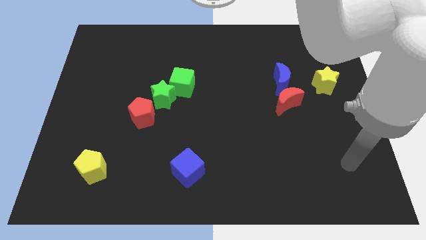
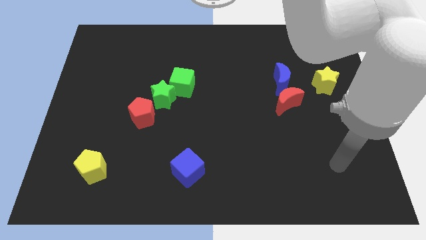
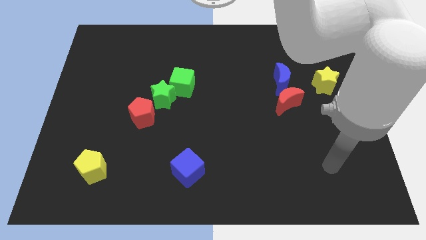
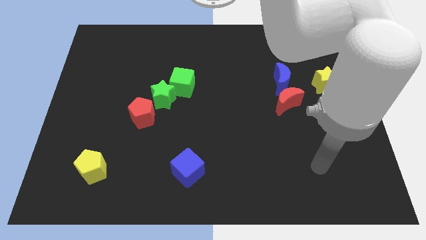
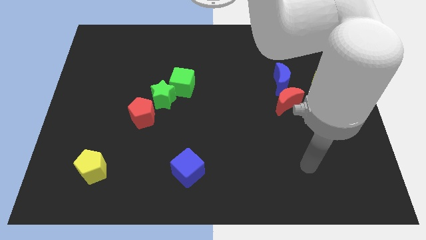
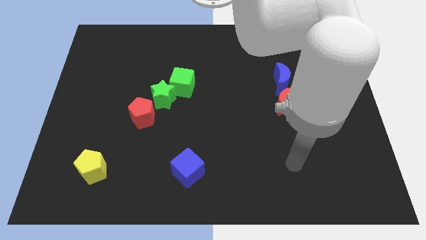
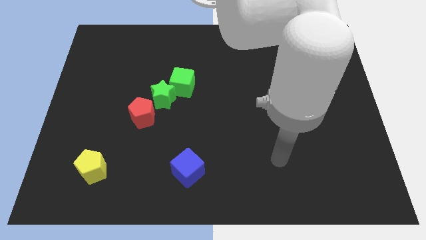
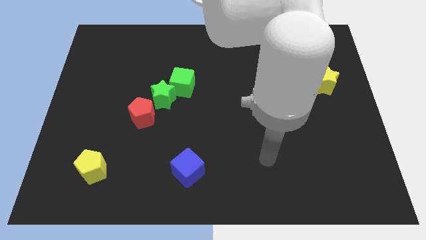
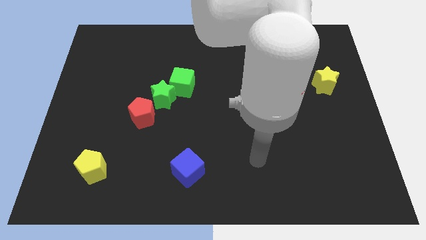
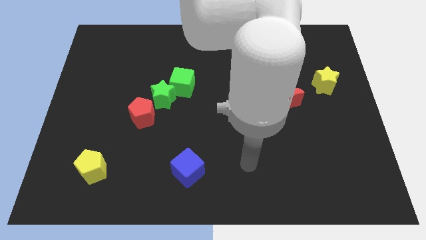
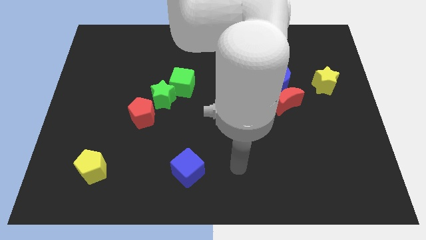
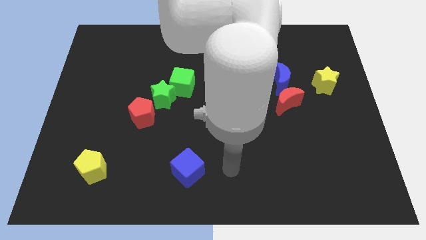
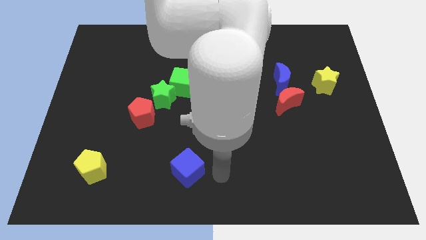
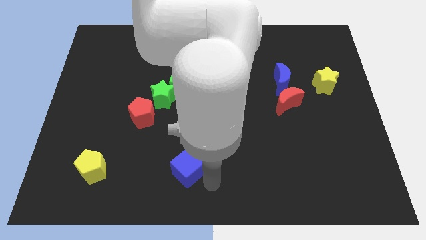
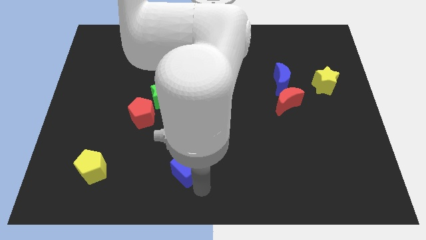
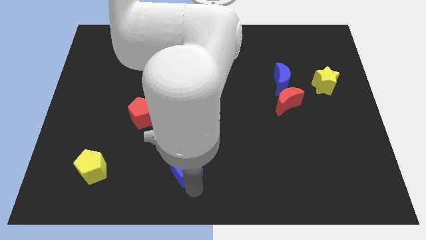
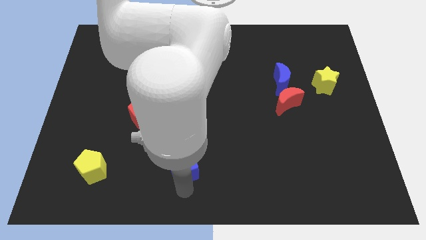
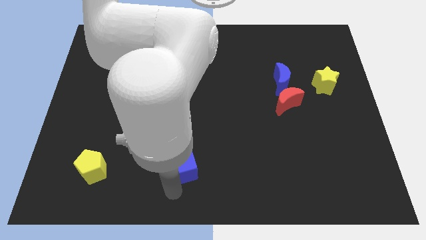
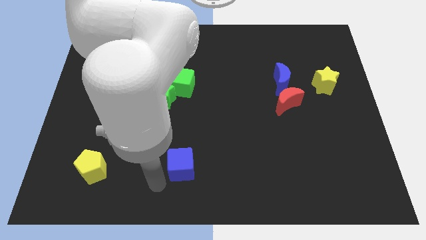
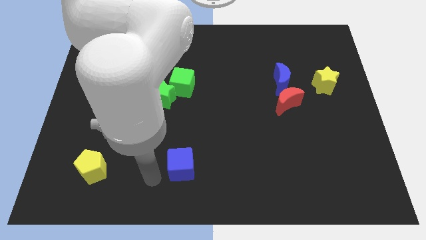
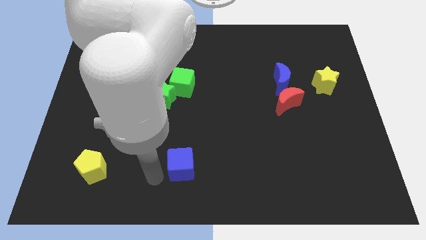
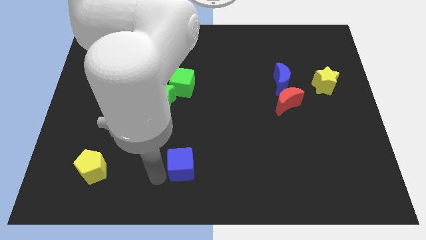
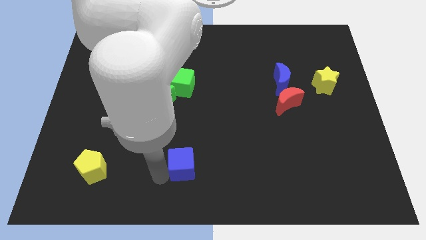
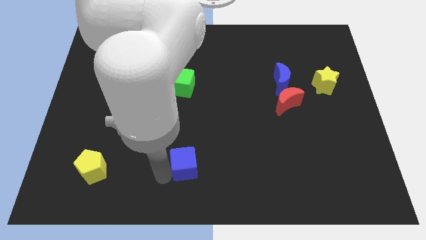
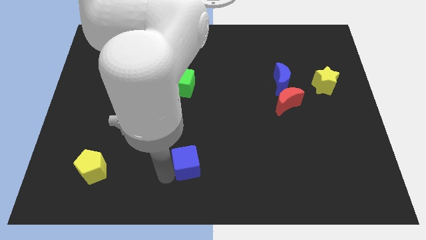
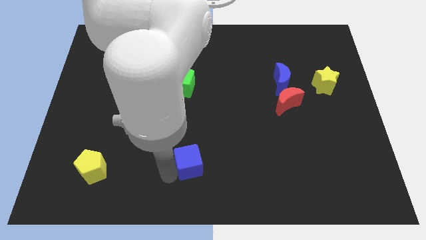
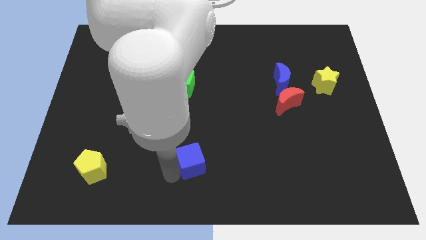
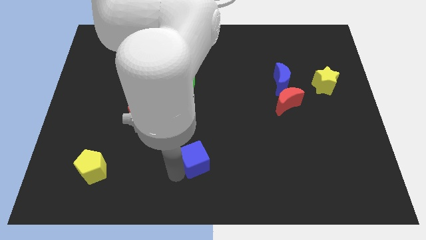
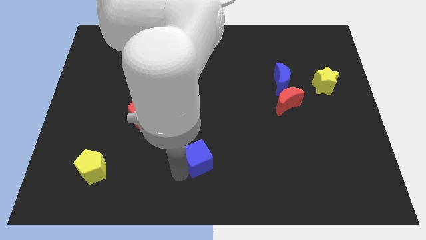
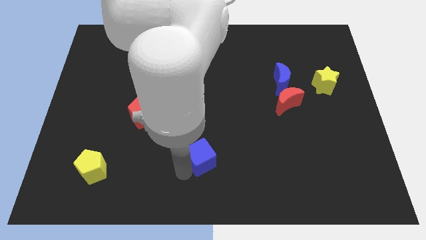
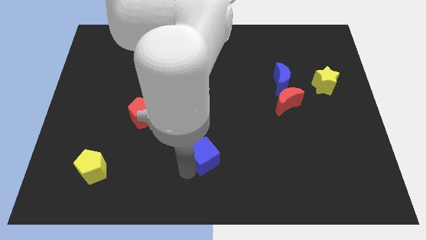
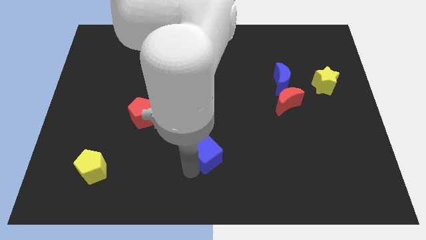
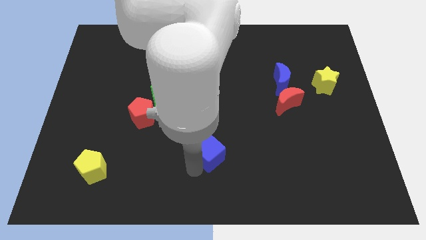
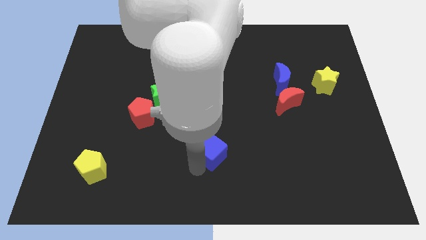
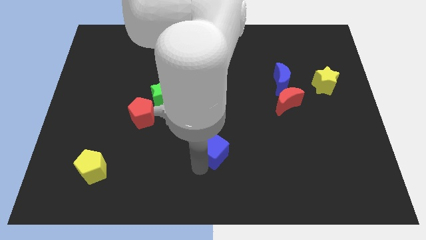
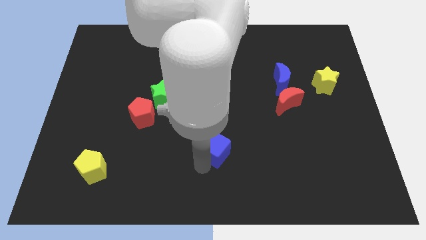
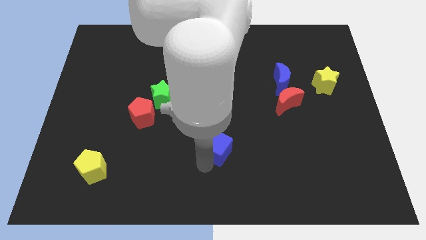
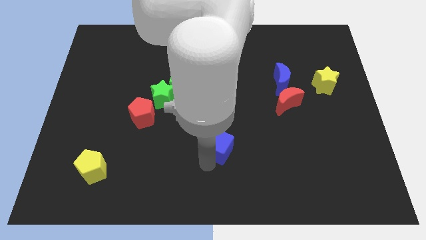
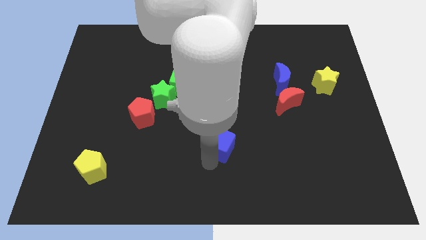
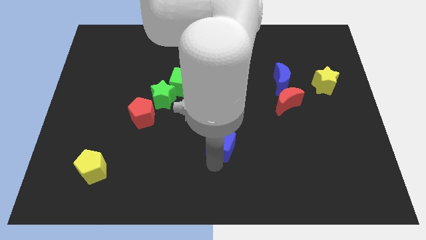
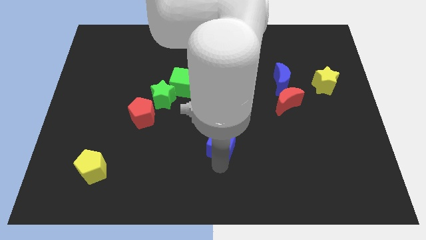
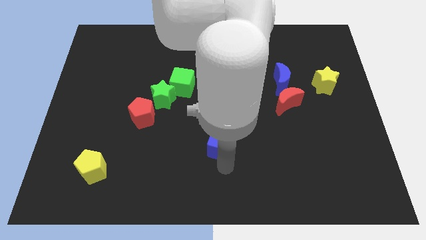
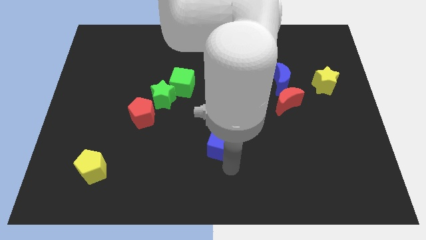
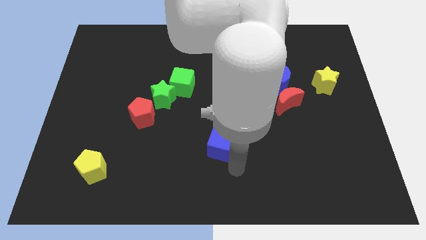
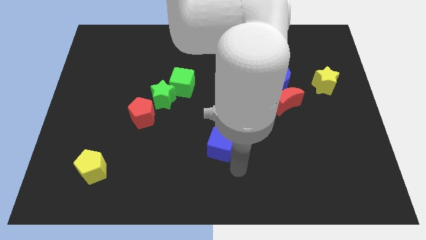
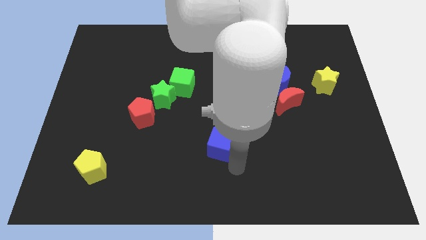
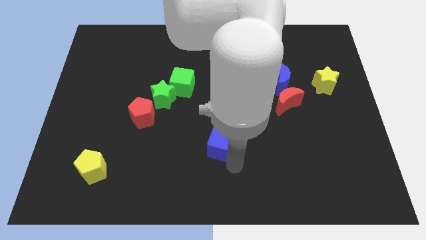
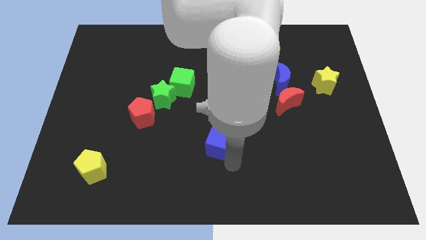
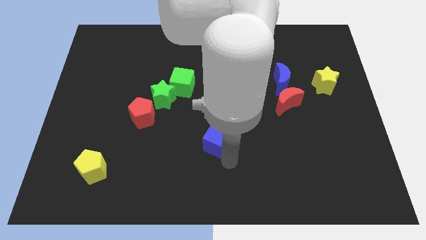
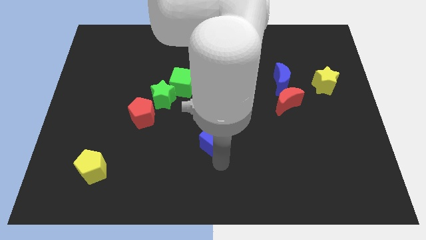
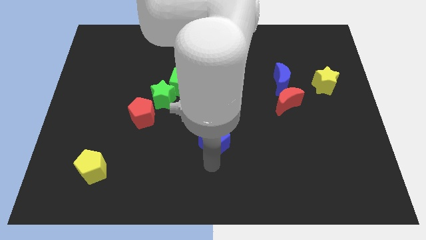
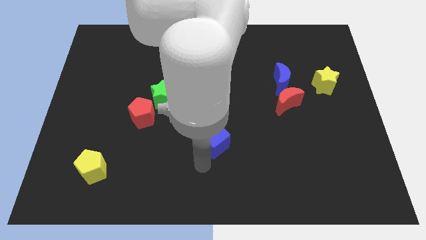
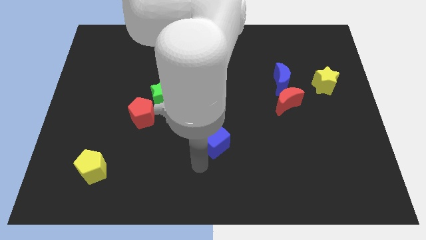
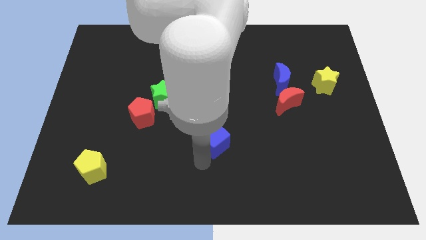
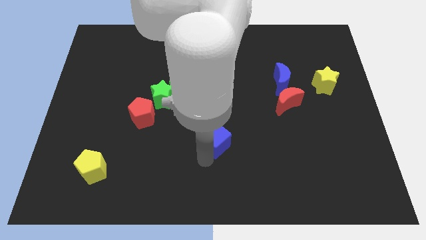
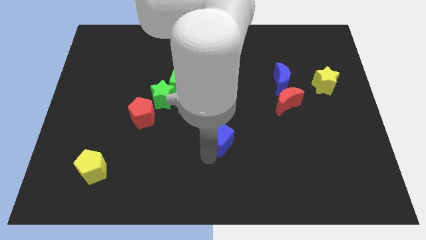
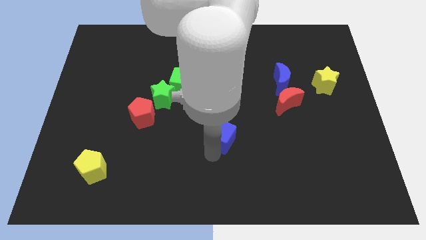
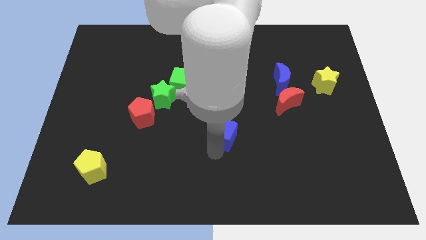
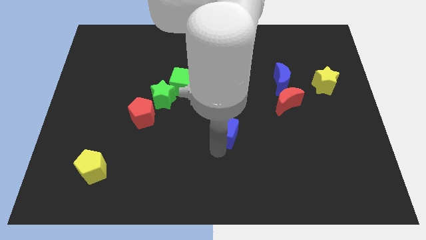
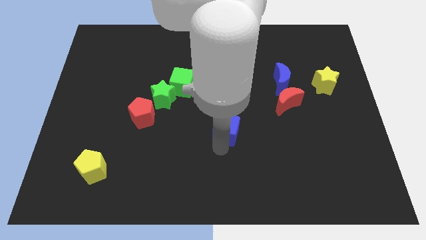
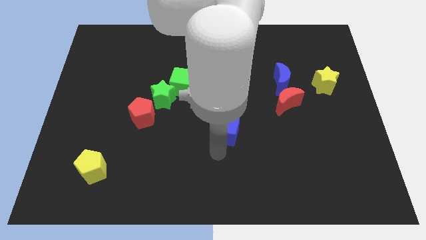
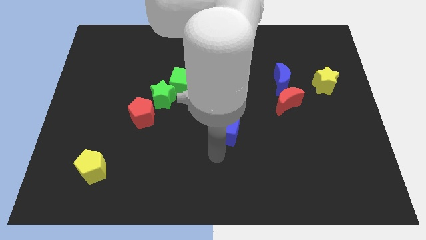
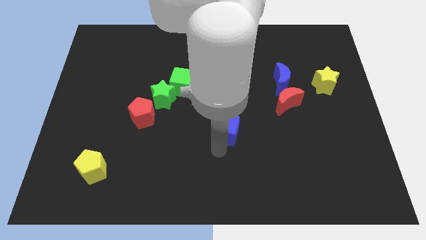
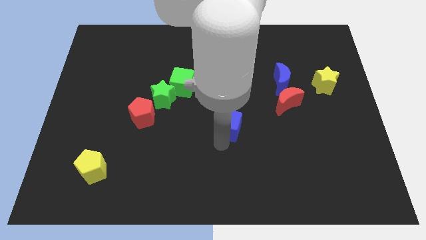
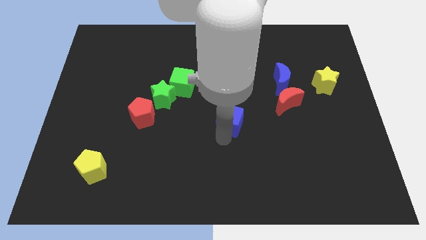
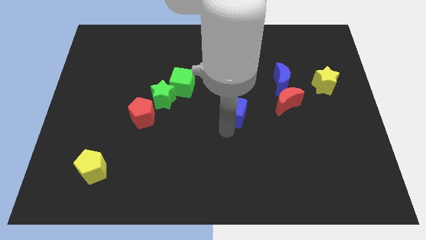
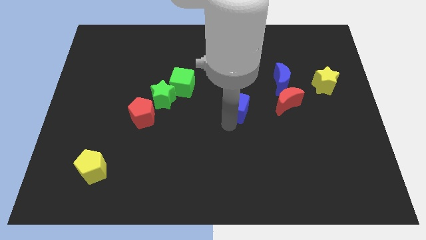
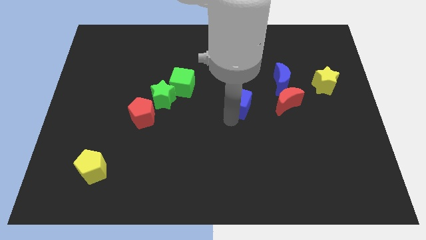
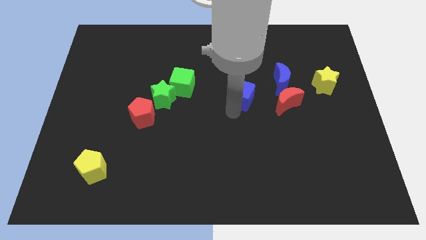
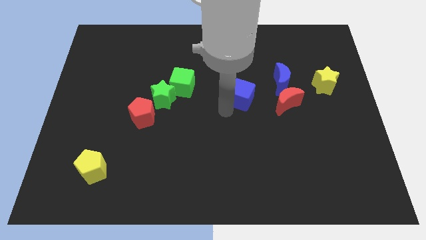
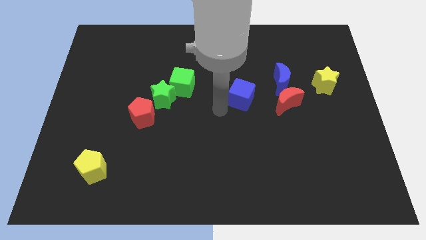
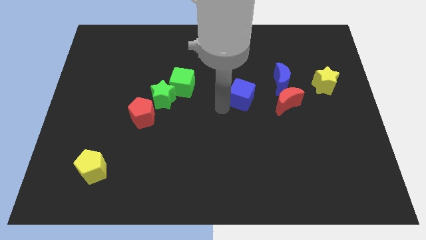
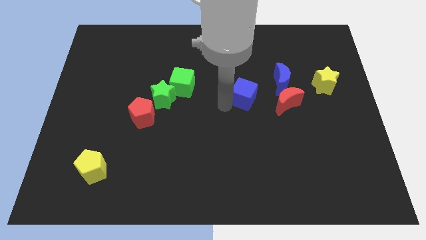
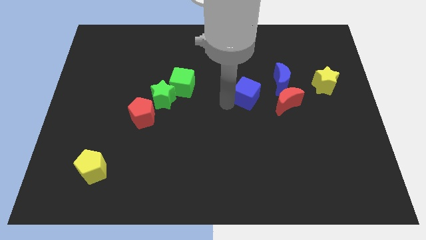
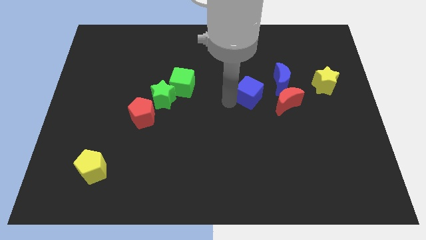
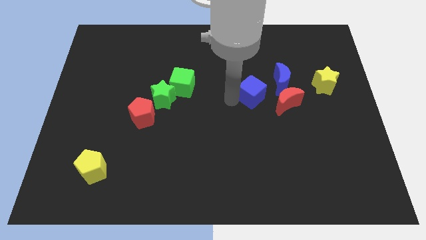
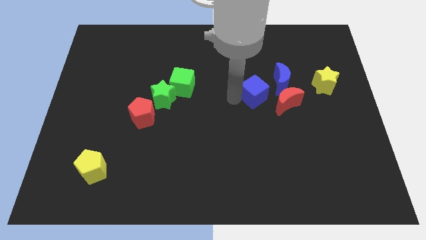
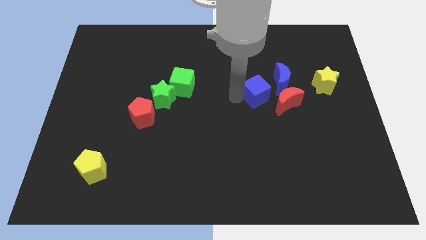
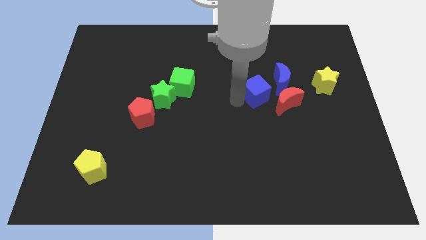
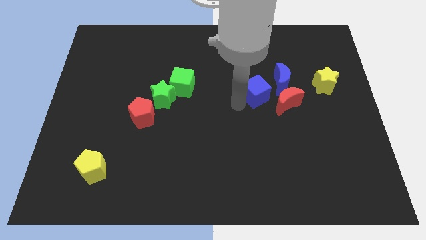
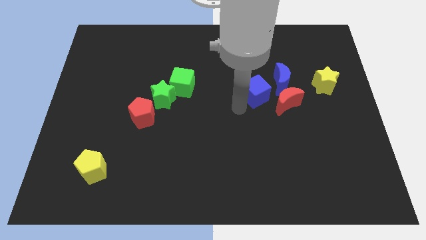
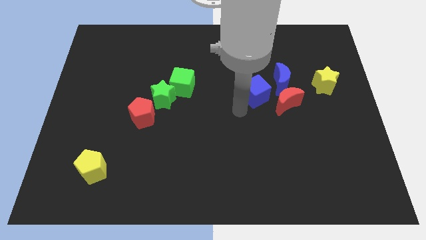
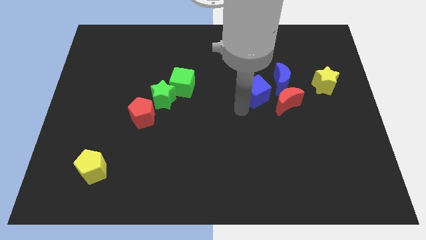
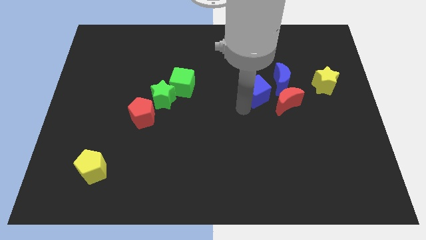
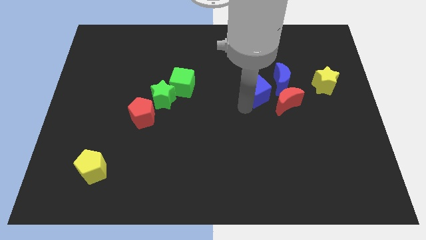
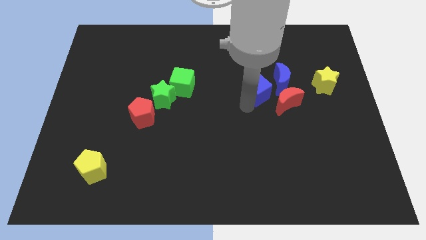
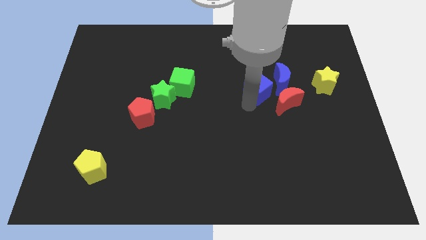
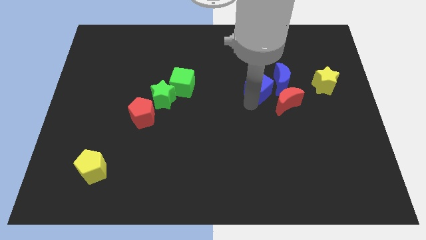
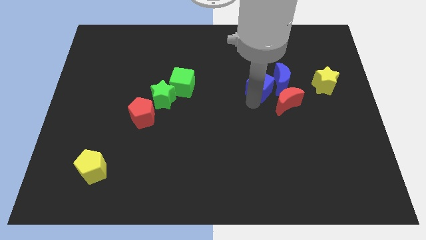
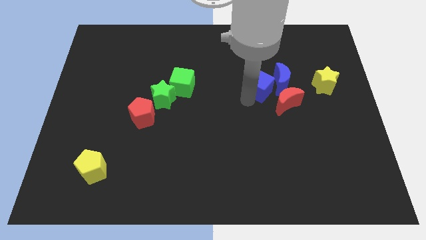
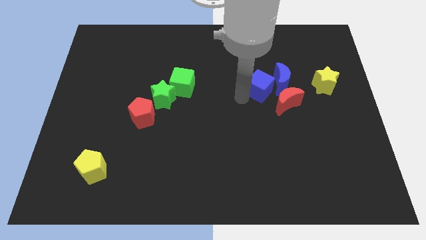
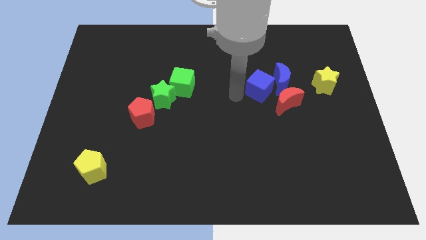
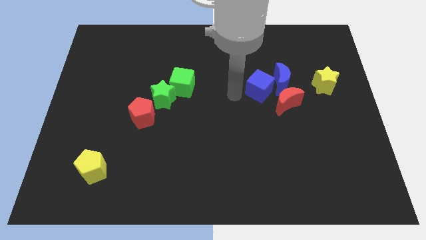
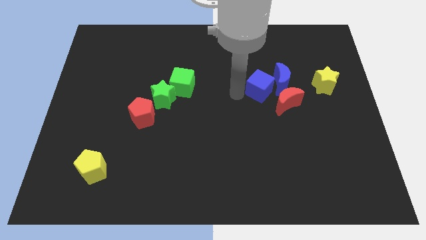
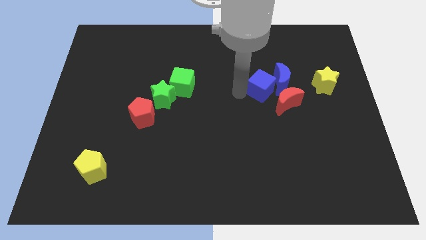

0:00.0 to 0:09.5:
move the blue cube to the left side of the yellow star
